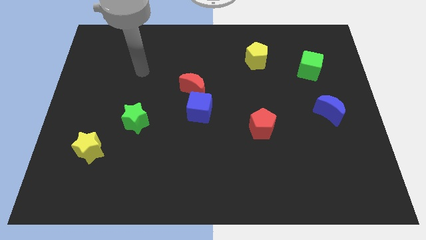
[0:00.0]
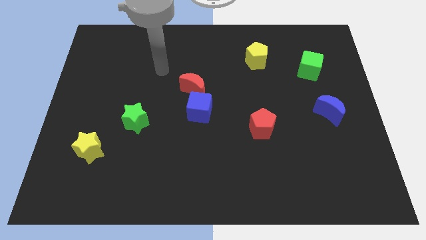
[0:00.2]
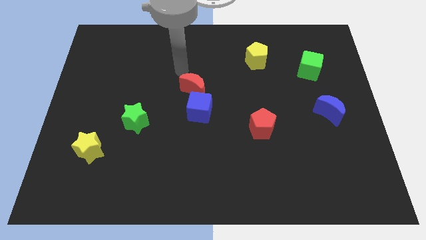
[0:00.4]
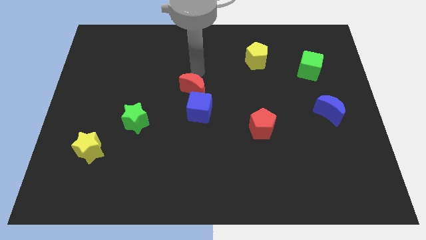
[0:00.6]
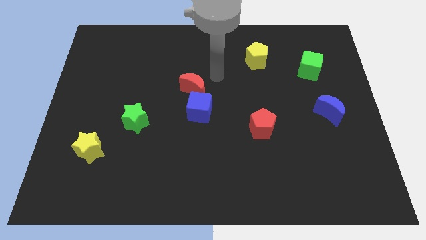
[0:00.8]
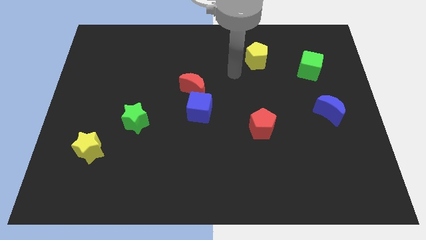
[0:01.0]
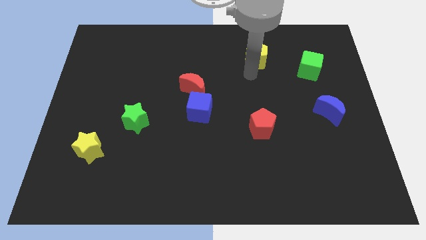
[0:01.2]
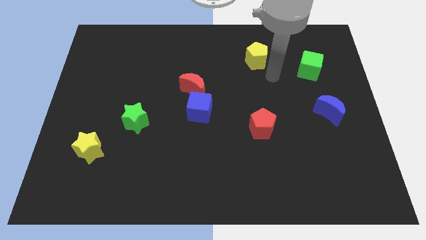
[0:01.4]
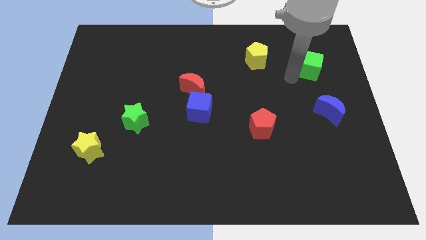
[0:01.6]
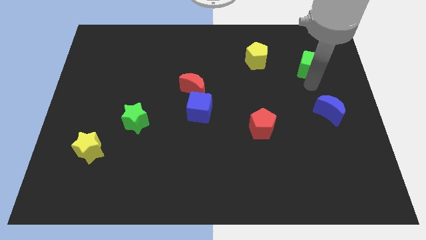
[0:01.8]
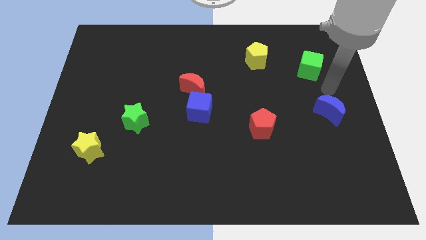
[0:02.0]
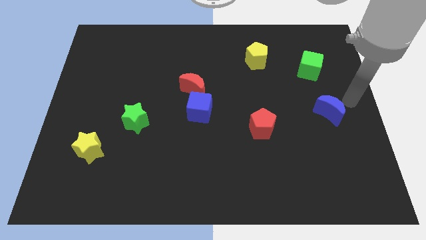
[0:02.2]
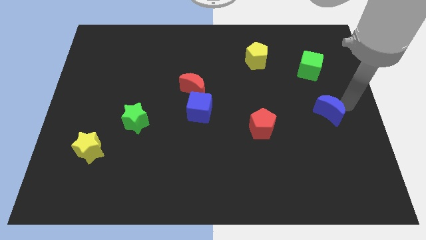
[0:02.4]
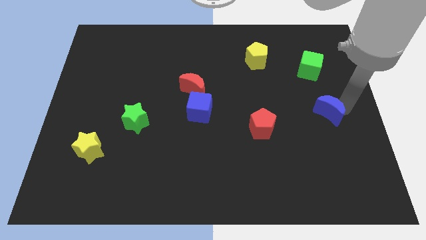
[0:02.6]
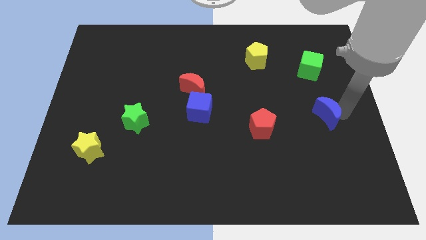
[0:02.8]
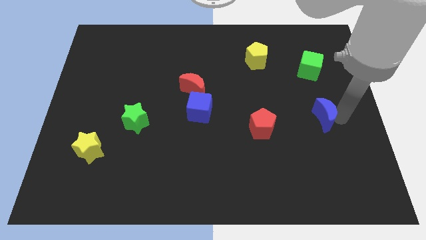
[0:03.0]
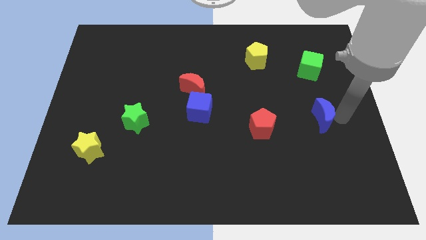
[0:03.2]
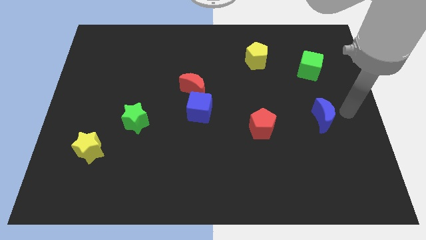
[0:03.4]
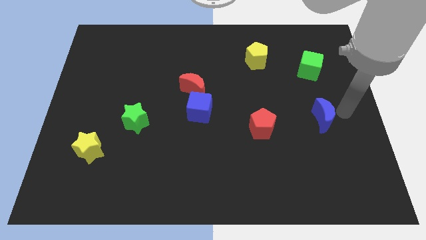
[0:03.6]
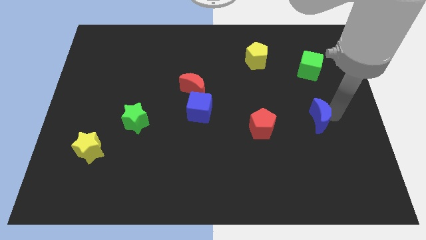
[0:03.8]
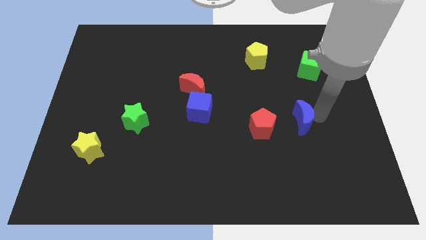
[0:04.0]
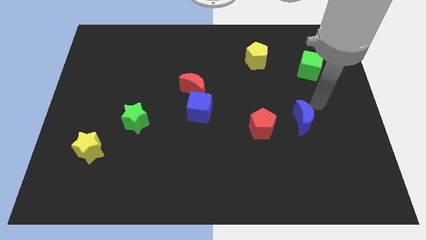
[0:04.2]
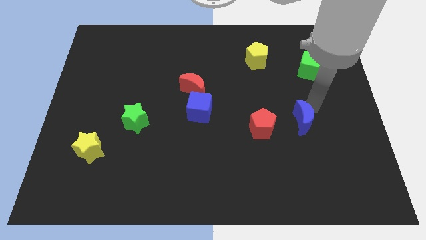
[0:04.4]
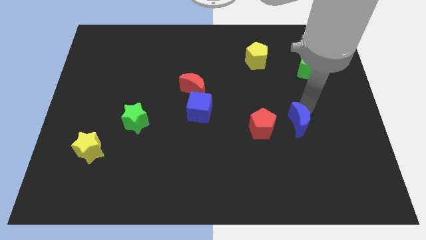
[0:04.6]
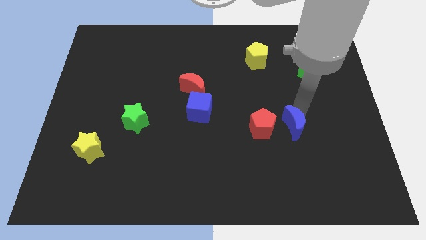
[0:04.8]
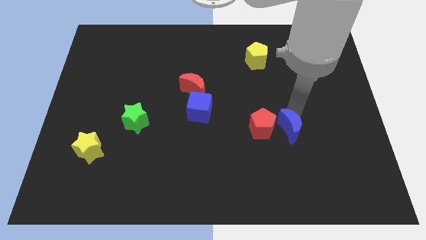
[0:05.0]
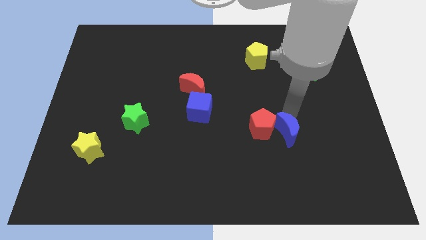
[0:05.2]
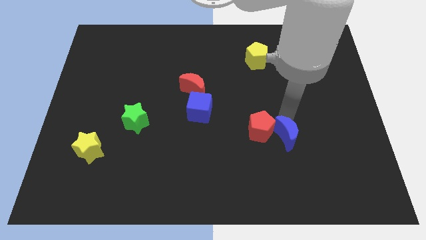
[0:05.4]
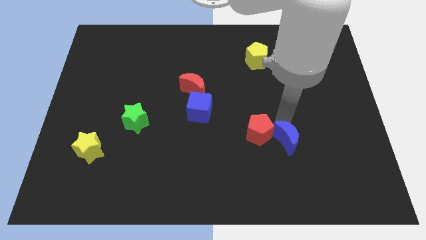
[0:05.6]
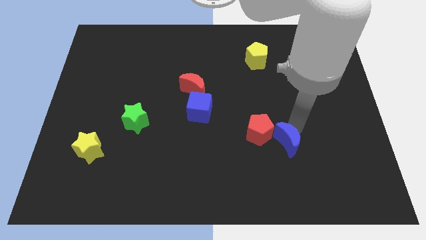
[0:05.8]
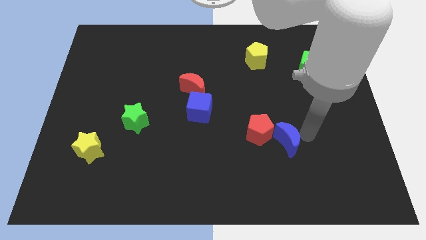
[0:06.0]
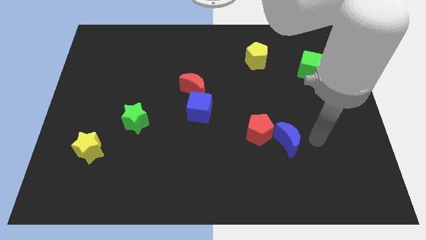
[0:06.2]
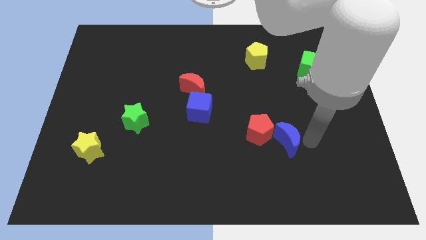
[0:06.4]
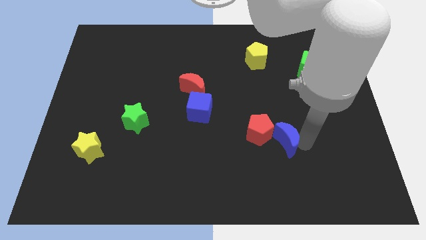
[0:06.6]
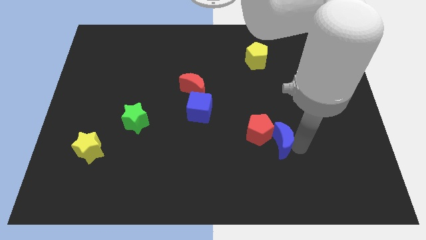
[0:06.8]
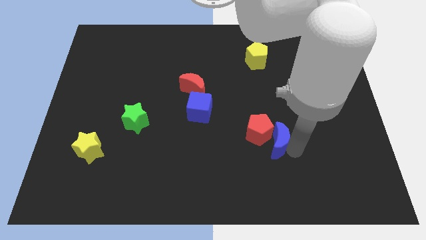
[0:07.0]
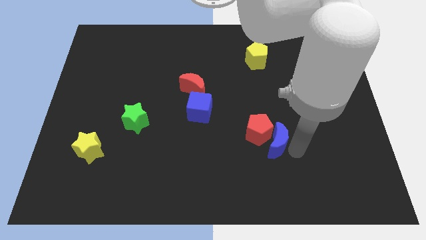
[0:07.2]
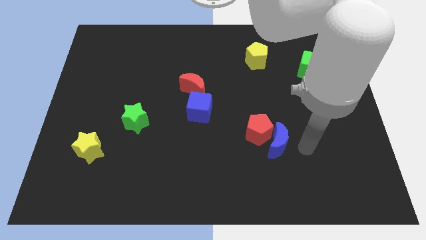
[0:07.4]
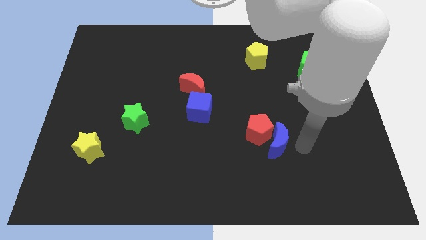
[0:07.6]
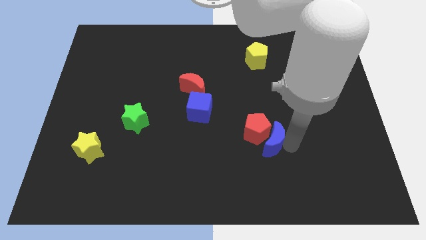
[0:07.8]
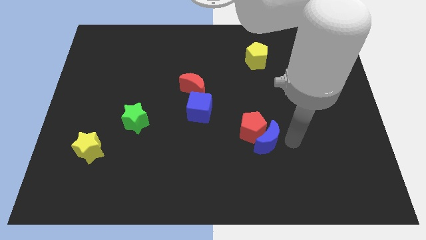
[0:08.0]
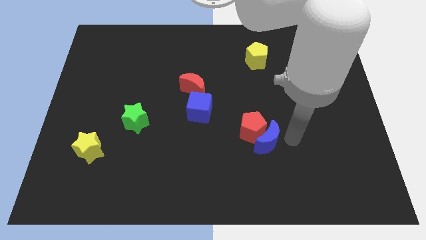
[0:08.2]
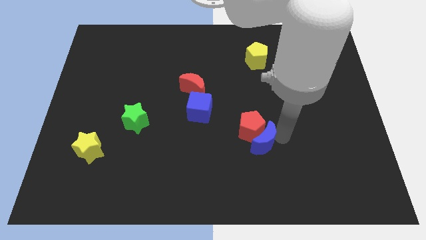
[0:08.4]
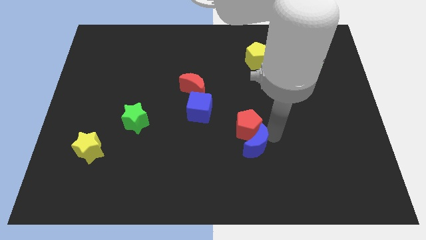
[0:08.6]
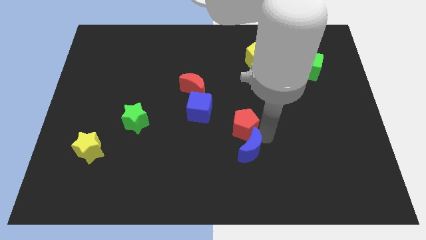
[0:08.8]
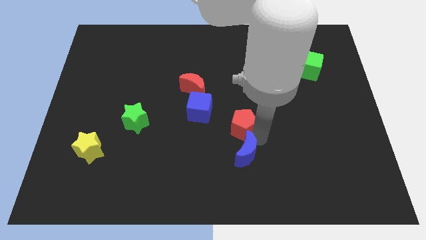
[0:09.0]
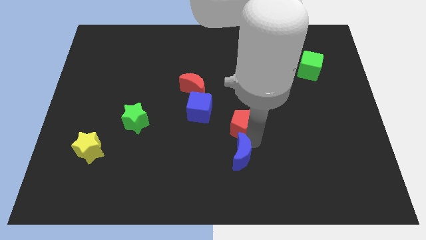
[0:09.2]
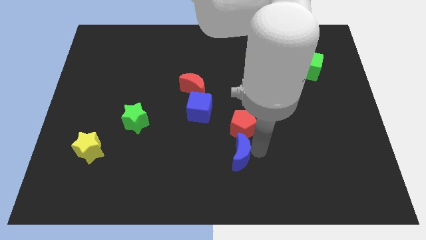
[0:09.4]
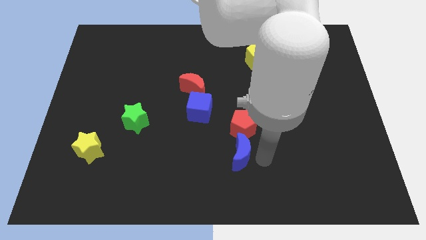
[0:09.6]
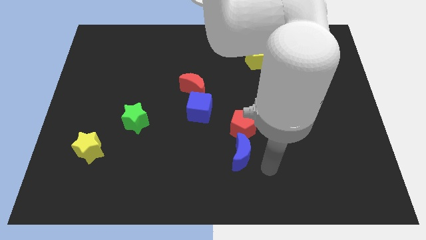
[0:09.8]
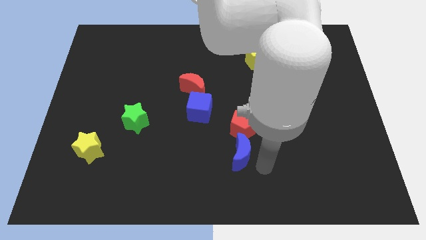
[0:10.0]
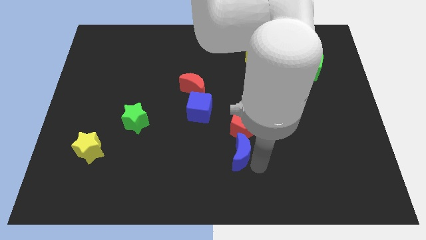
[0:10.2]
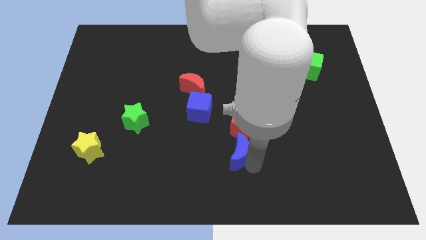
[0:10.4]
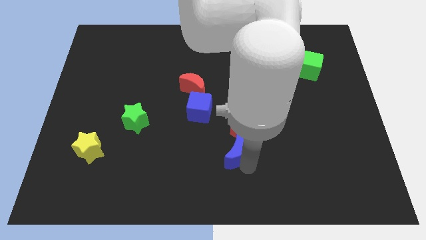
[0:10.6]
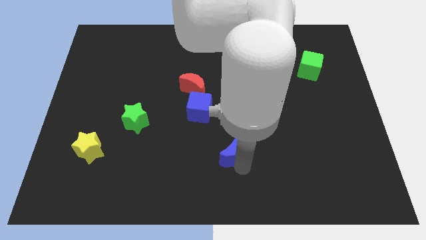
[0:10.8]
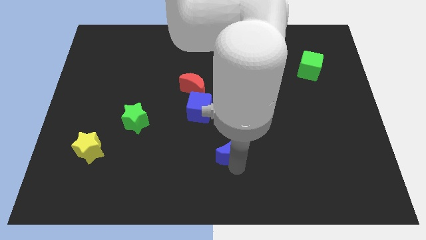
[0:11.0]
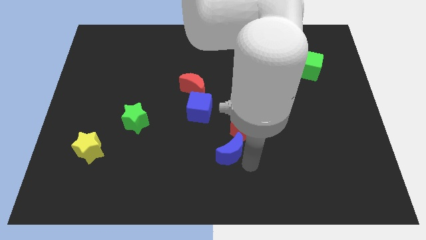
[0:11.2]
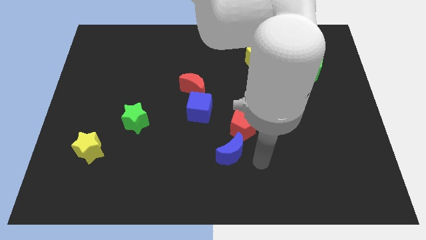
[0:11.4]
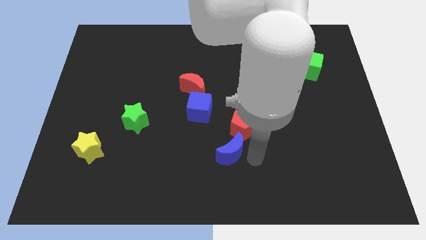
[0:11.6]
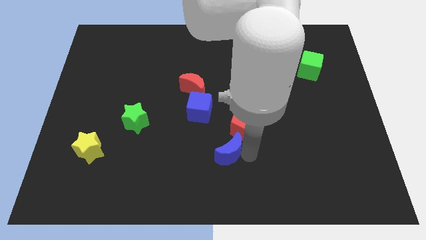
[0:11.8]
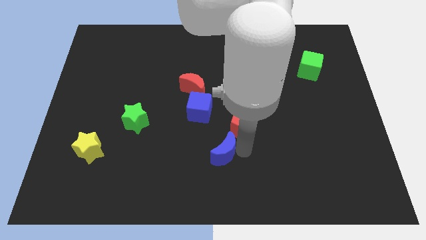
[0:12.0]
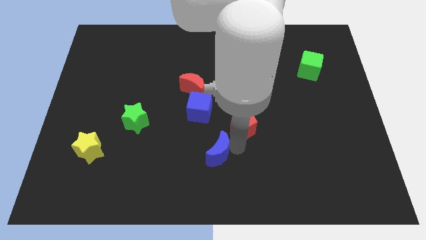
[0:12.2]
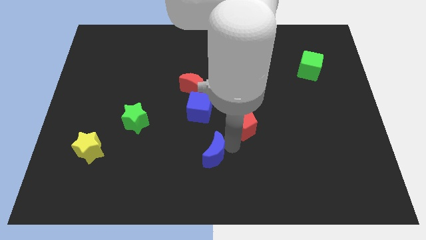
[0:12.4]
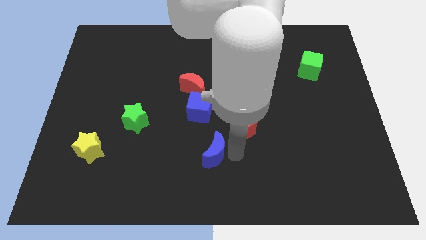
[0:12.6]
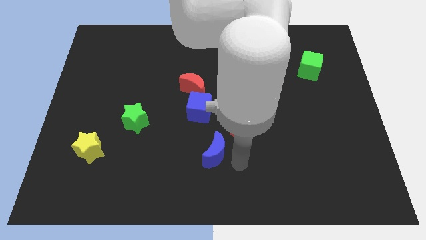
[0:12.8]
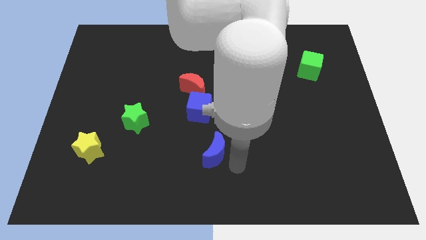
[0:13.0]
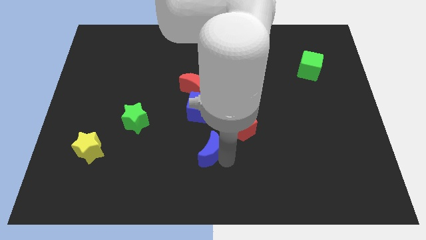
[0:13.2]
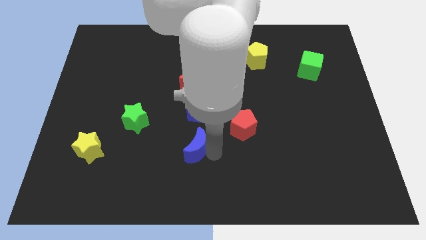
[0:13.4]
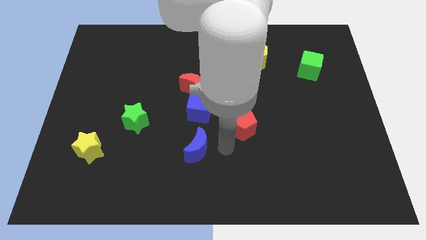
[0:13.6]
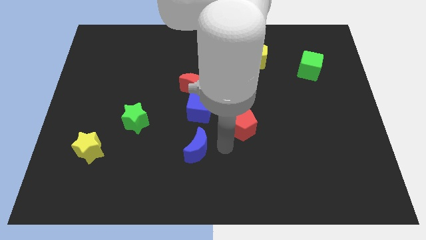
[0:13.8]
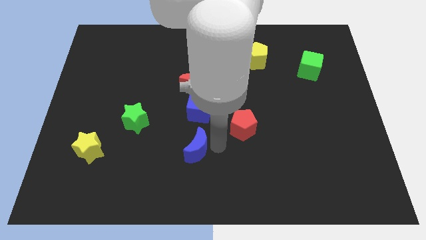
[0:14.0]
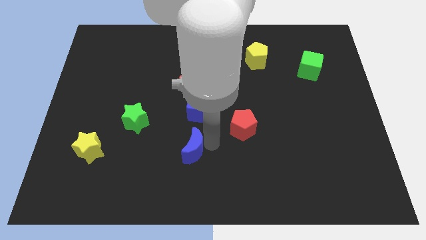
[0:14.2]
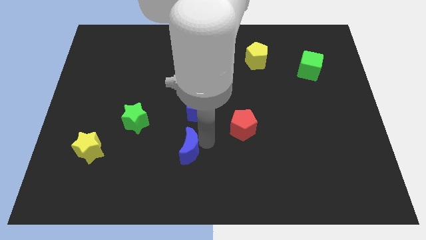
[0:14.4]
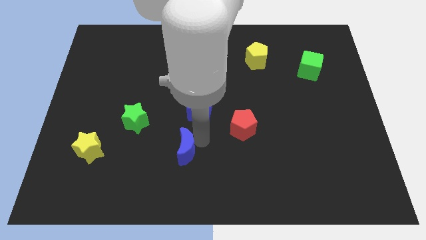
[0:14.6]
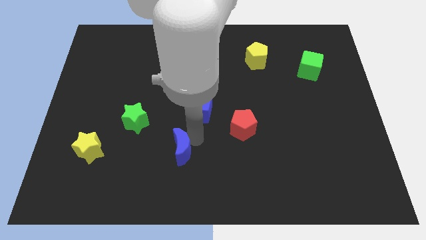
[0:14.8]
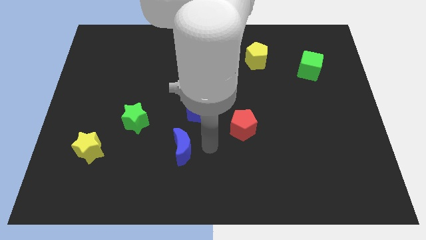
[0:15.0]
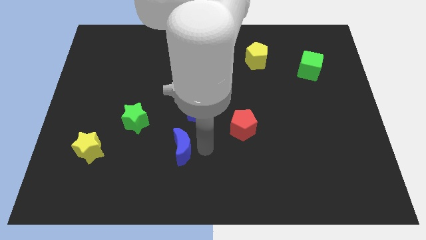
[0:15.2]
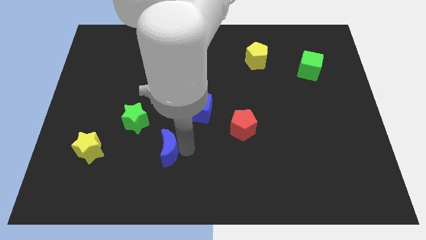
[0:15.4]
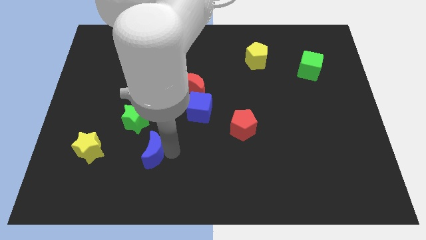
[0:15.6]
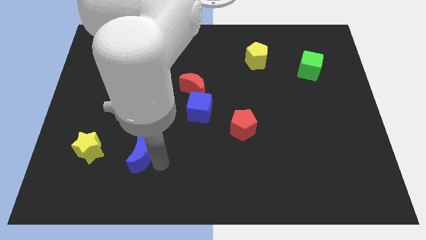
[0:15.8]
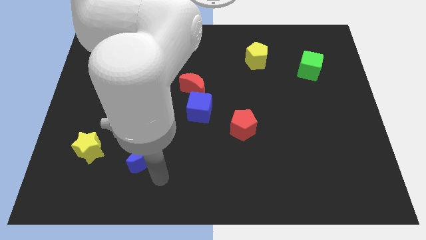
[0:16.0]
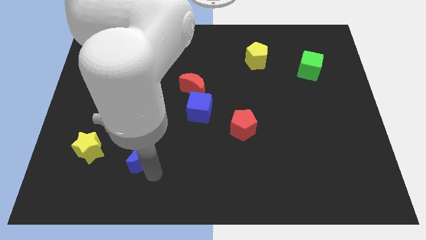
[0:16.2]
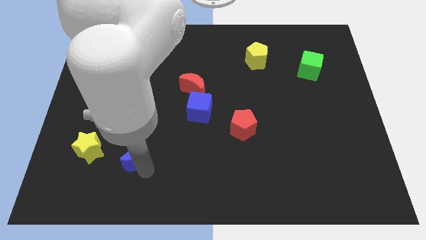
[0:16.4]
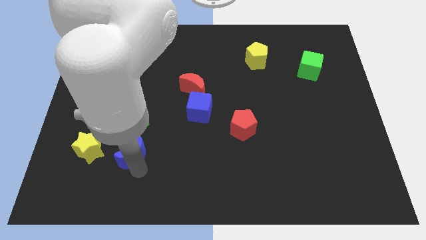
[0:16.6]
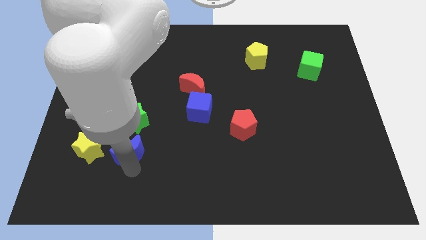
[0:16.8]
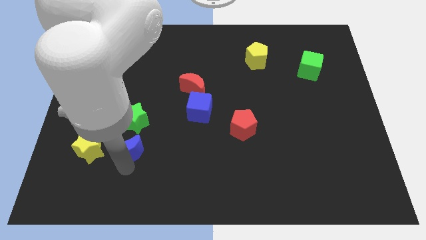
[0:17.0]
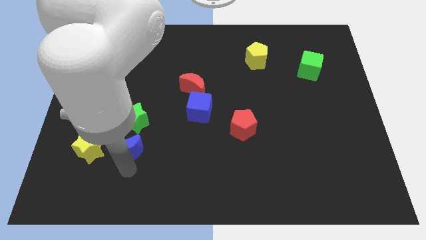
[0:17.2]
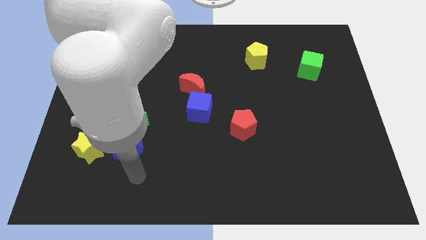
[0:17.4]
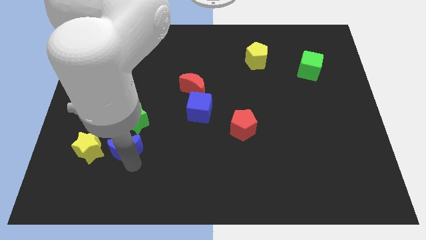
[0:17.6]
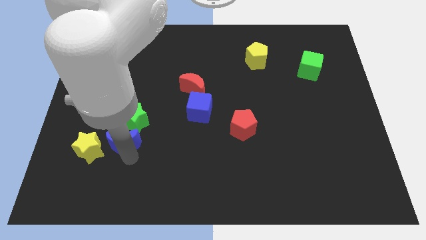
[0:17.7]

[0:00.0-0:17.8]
push the blue moon diagonally up and to the right of the yellow star
